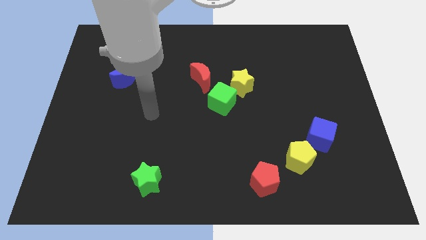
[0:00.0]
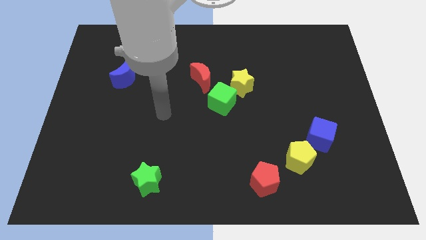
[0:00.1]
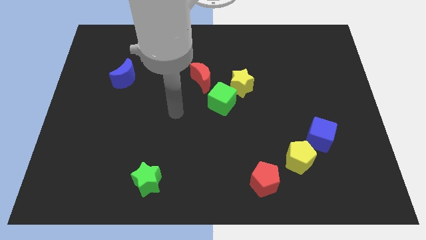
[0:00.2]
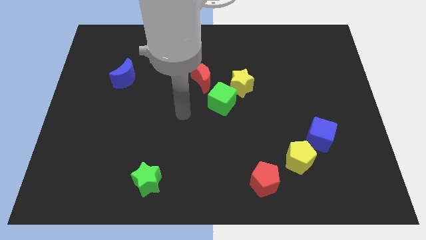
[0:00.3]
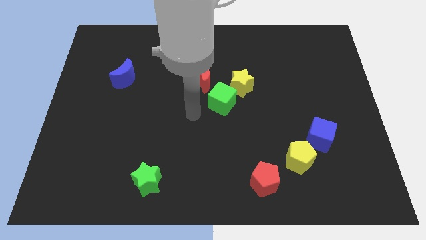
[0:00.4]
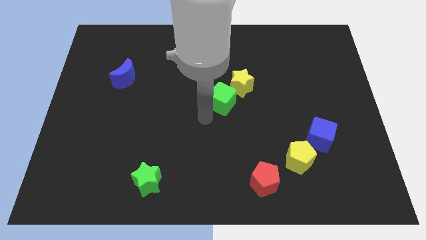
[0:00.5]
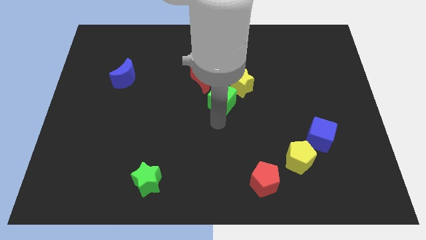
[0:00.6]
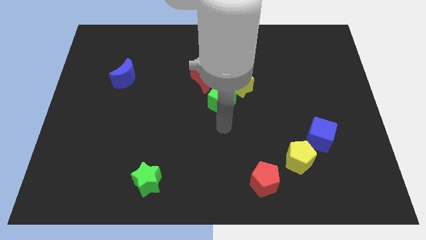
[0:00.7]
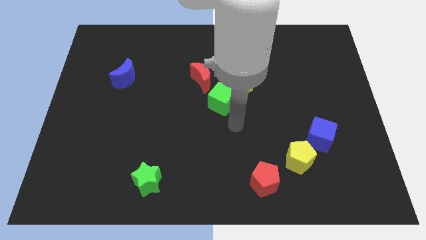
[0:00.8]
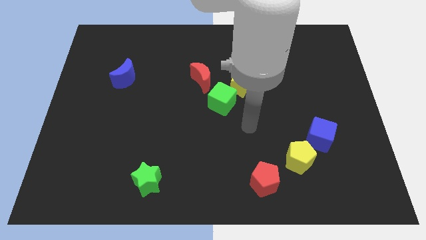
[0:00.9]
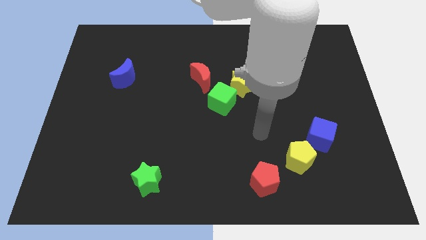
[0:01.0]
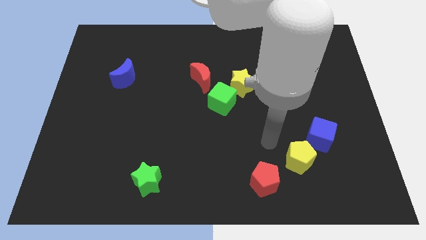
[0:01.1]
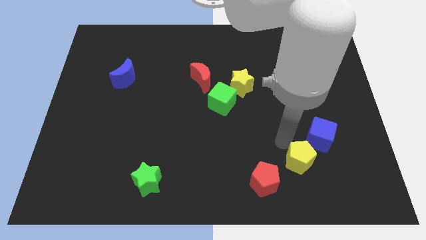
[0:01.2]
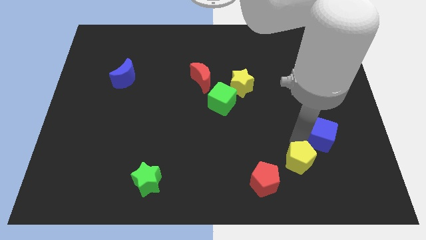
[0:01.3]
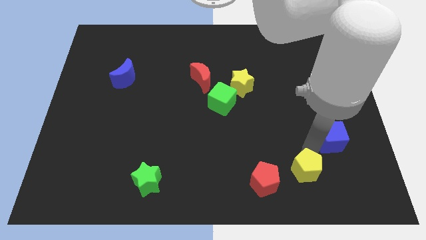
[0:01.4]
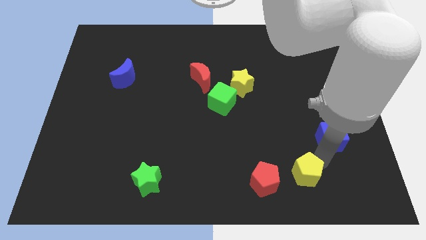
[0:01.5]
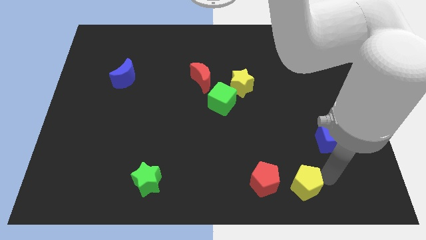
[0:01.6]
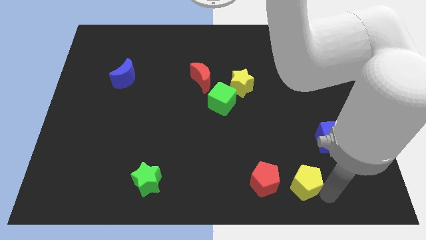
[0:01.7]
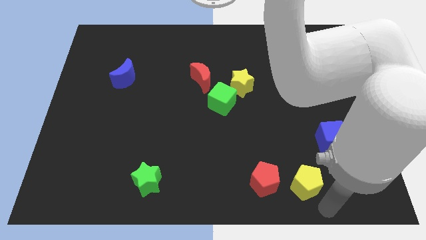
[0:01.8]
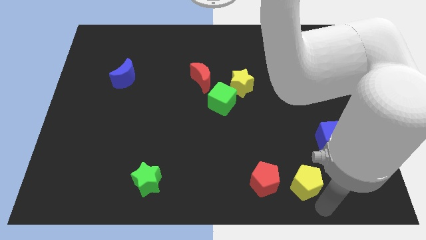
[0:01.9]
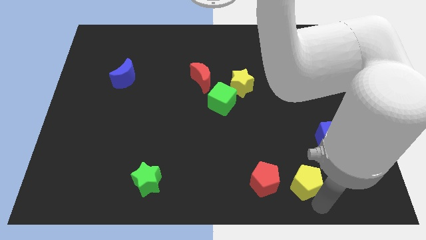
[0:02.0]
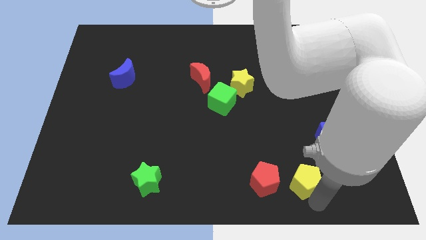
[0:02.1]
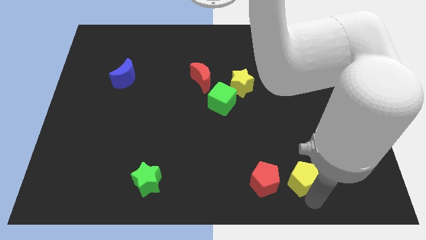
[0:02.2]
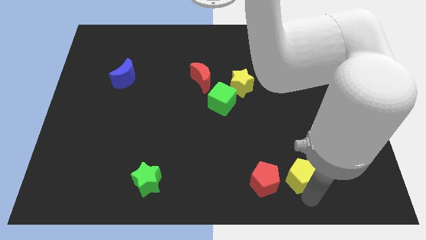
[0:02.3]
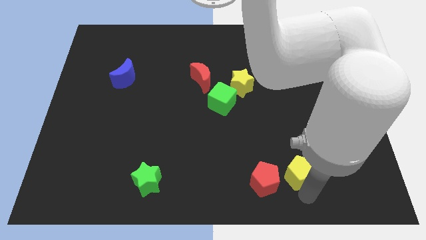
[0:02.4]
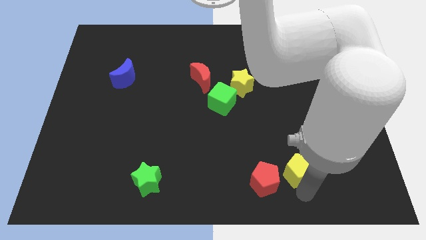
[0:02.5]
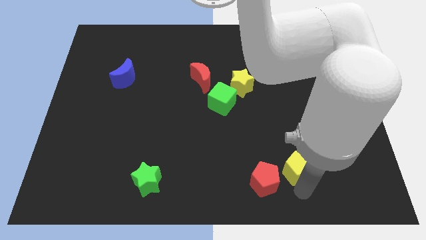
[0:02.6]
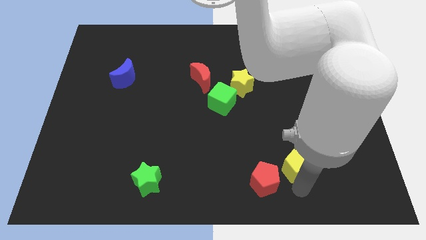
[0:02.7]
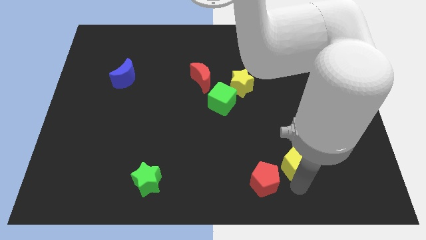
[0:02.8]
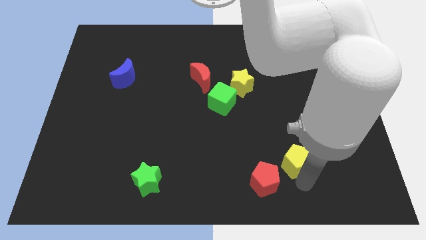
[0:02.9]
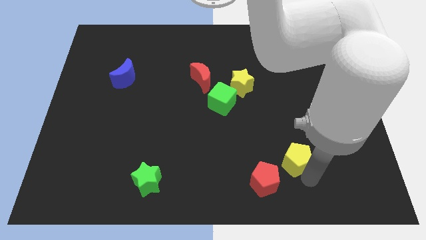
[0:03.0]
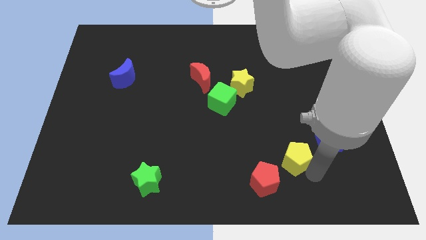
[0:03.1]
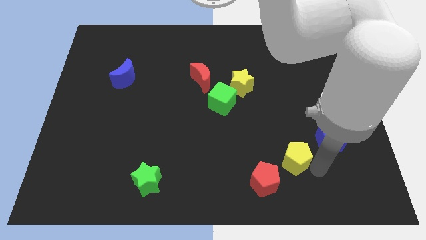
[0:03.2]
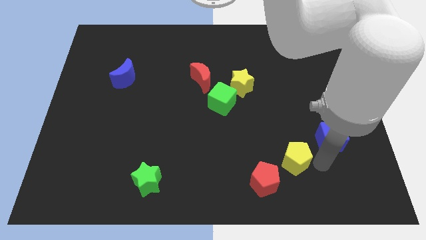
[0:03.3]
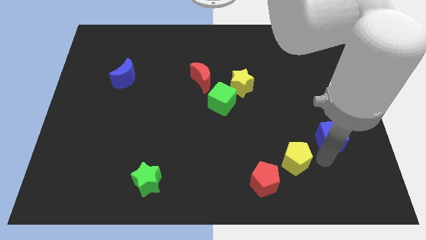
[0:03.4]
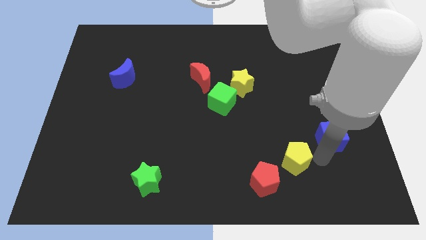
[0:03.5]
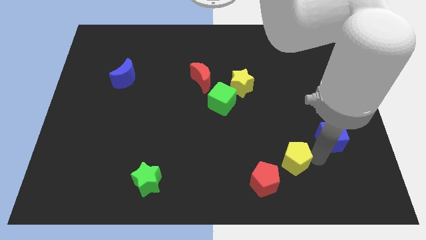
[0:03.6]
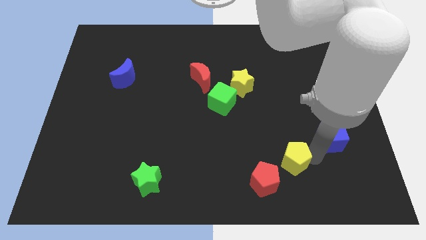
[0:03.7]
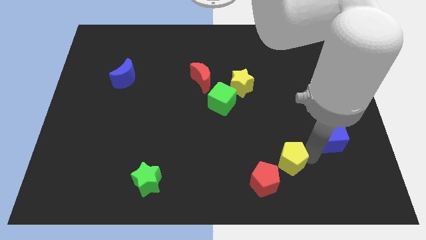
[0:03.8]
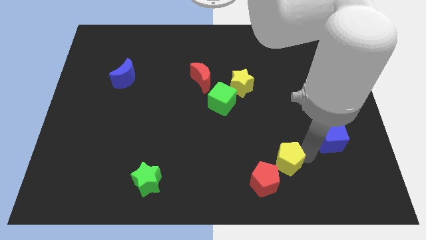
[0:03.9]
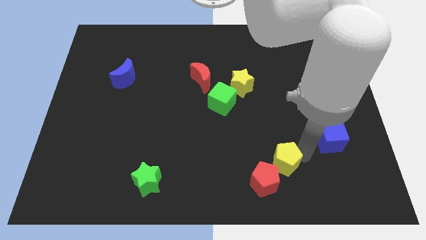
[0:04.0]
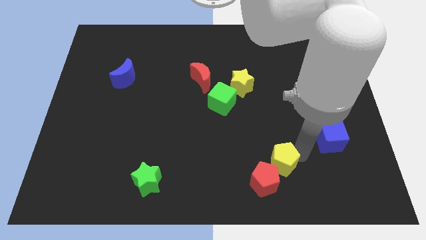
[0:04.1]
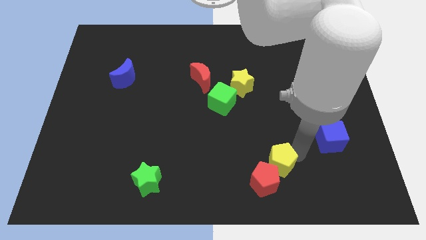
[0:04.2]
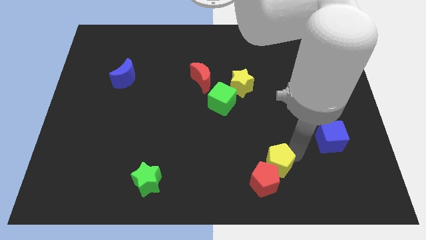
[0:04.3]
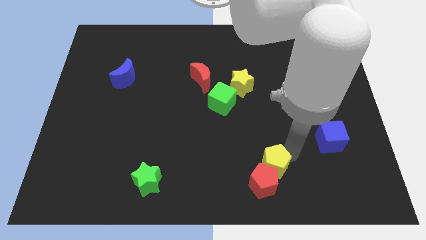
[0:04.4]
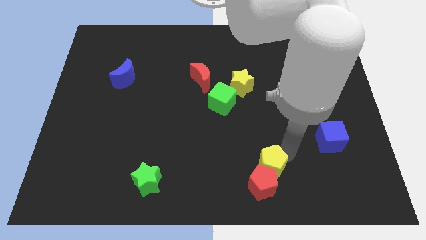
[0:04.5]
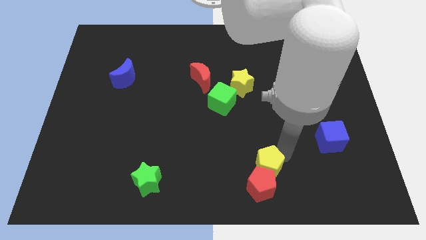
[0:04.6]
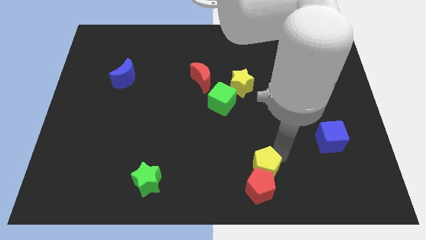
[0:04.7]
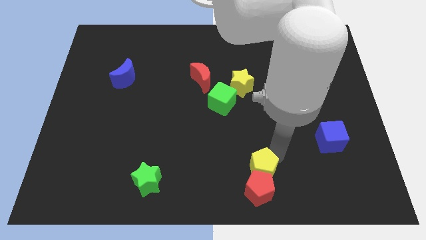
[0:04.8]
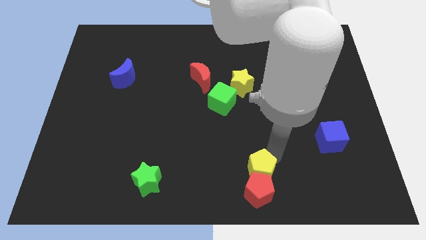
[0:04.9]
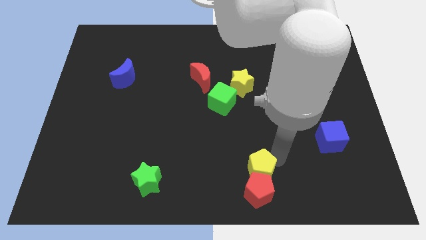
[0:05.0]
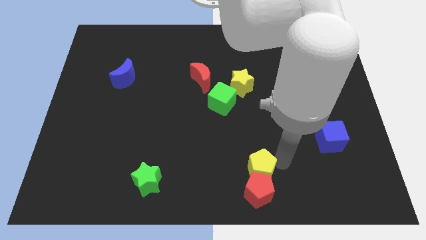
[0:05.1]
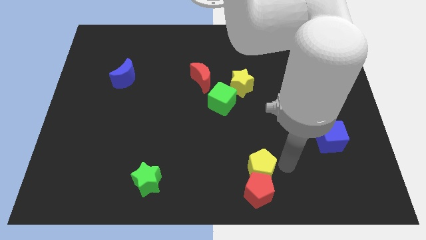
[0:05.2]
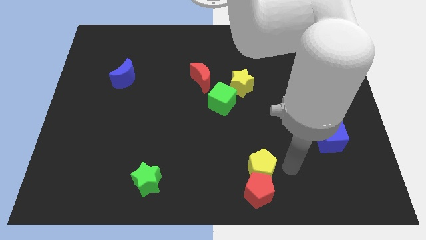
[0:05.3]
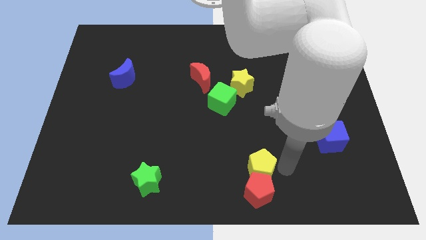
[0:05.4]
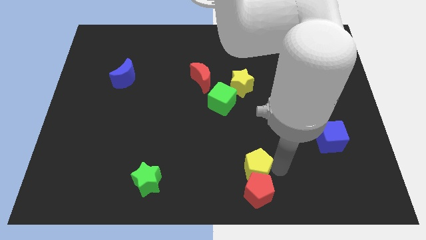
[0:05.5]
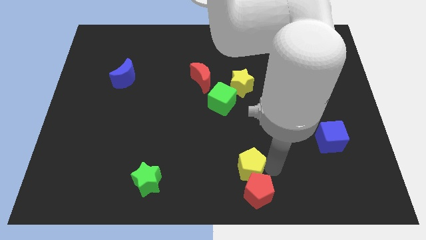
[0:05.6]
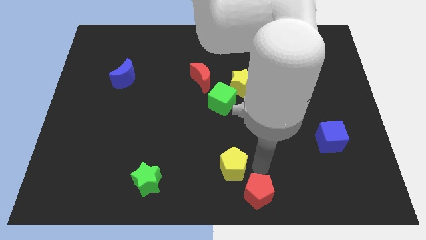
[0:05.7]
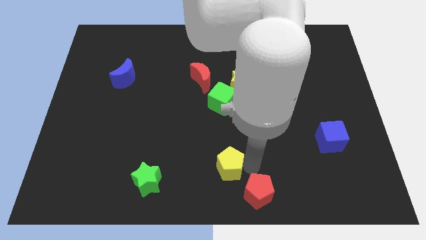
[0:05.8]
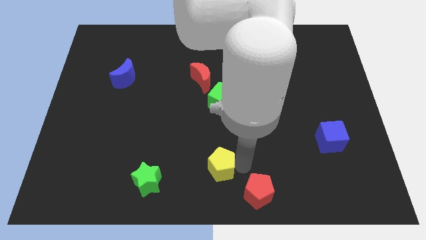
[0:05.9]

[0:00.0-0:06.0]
put the yellow pentagon to the right side of the green star

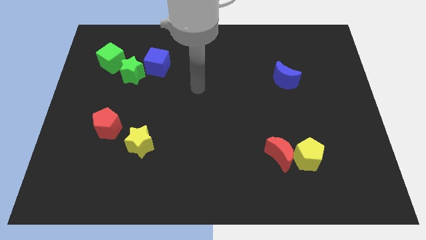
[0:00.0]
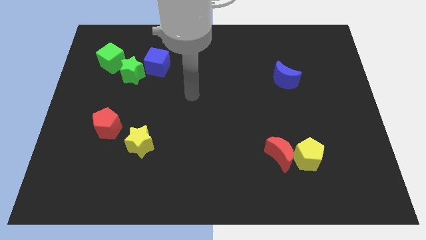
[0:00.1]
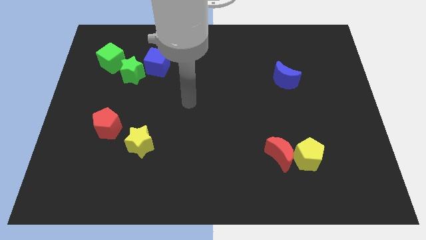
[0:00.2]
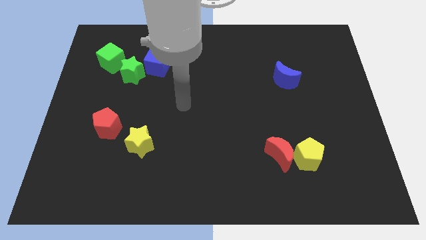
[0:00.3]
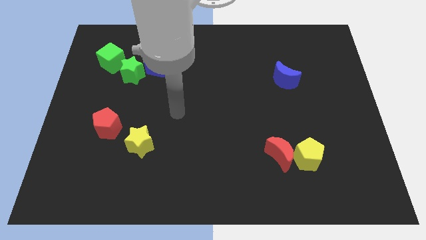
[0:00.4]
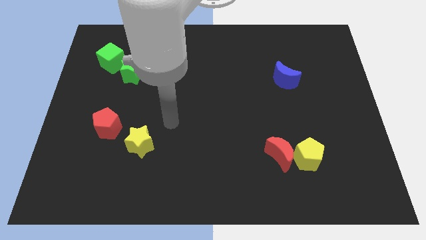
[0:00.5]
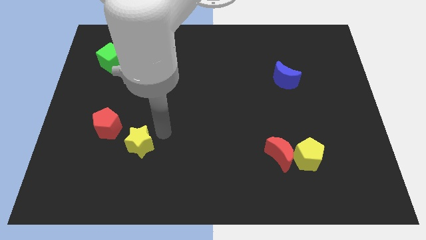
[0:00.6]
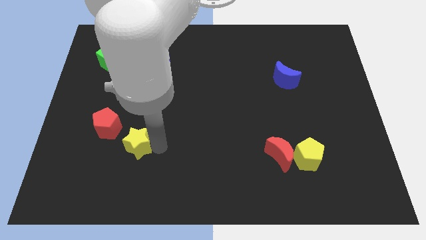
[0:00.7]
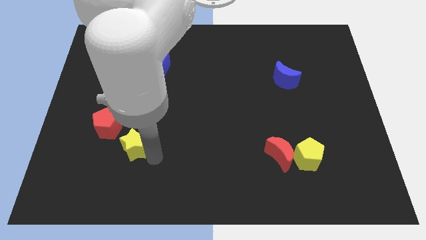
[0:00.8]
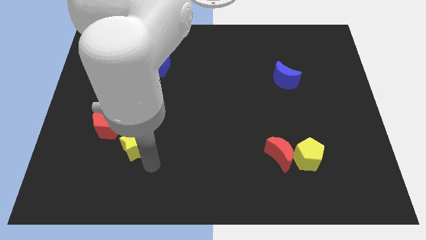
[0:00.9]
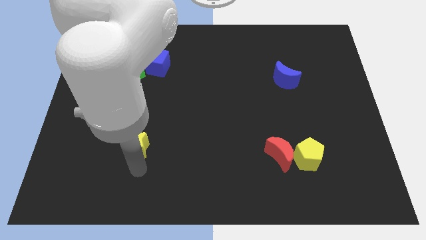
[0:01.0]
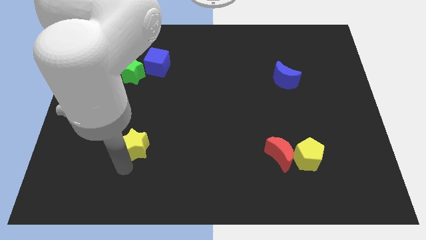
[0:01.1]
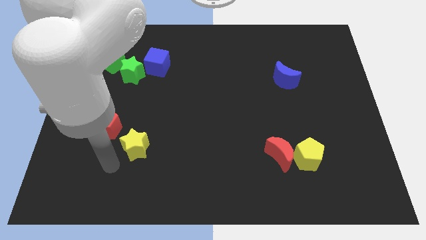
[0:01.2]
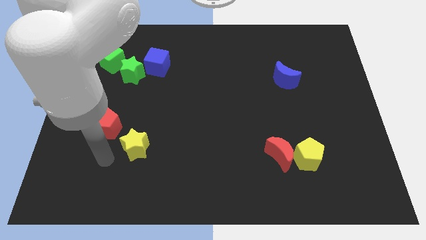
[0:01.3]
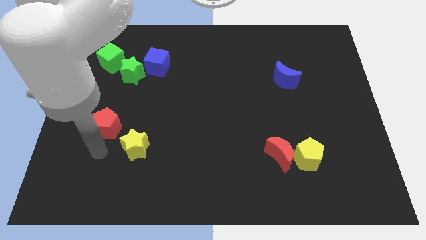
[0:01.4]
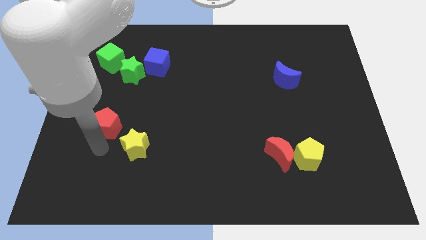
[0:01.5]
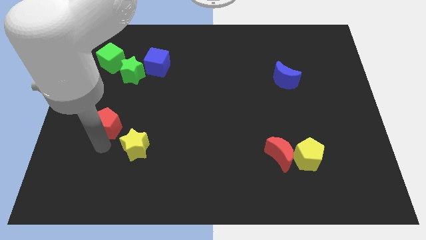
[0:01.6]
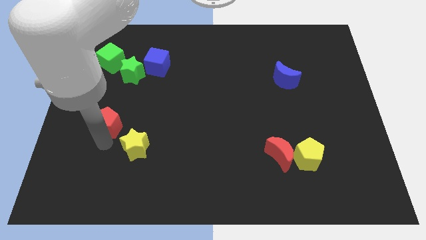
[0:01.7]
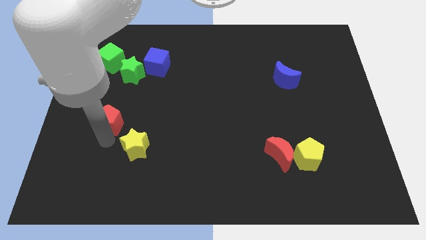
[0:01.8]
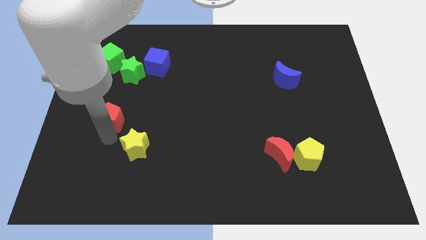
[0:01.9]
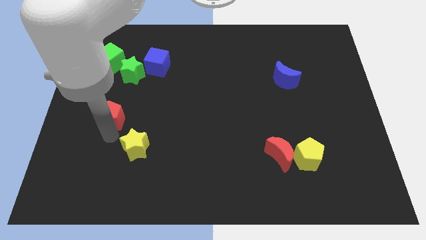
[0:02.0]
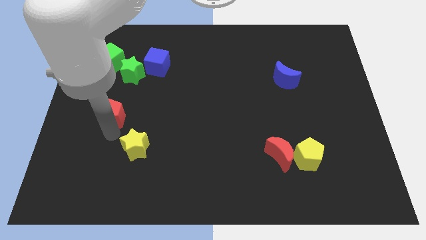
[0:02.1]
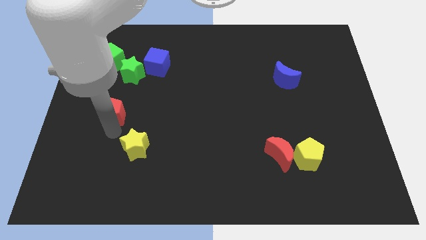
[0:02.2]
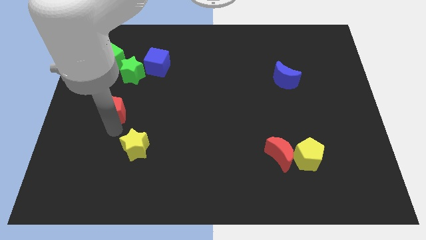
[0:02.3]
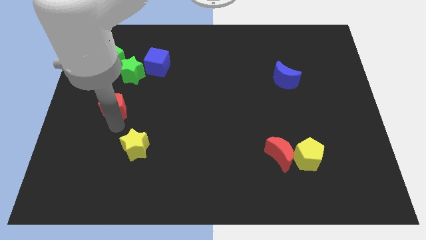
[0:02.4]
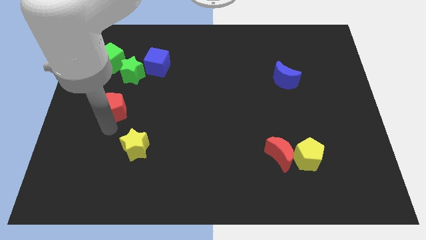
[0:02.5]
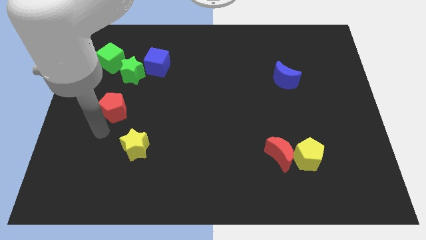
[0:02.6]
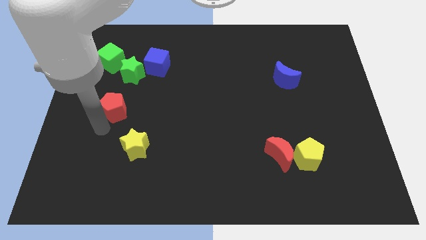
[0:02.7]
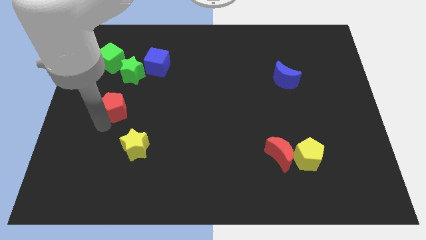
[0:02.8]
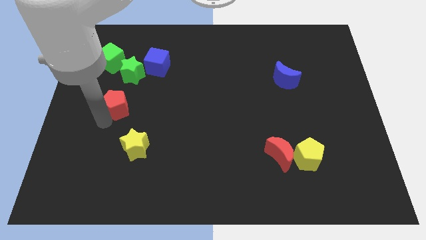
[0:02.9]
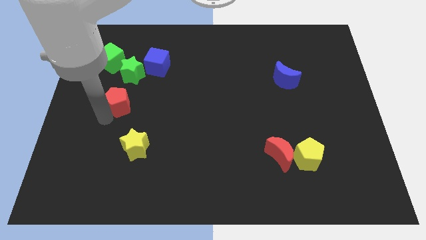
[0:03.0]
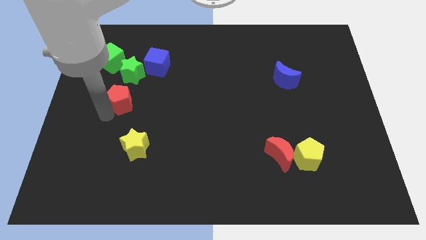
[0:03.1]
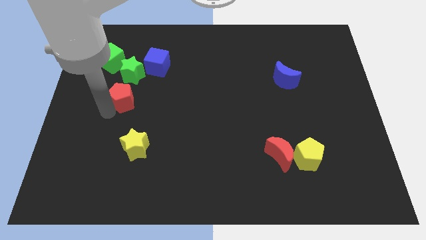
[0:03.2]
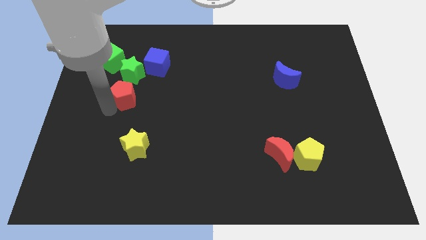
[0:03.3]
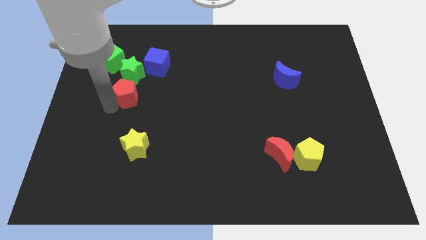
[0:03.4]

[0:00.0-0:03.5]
move the red pentagon to the bottom left side of the blue cube
